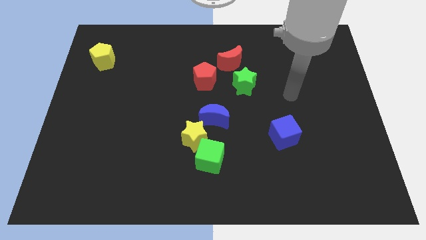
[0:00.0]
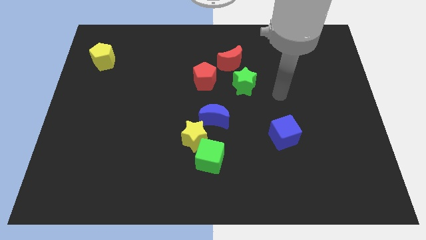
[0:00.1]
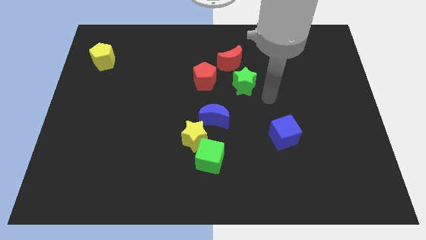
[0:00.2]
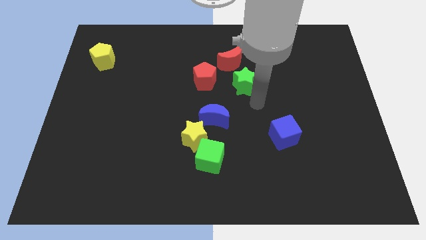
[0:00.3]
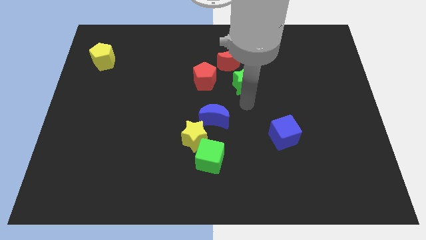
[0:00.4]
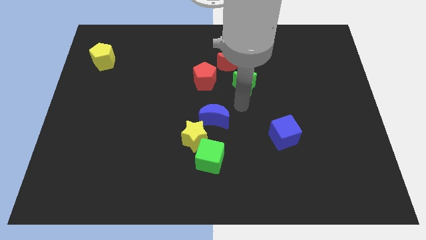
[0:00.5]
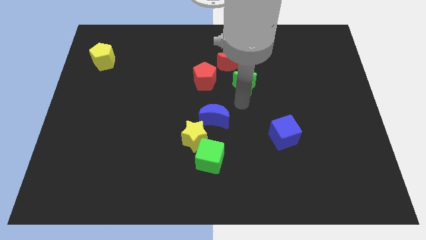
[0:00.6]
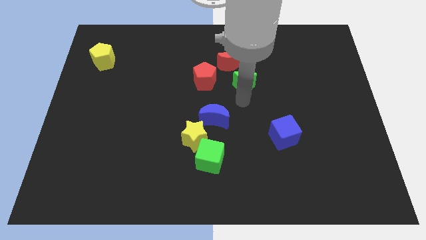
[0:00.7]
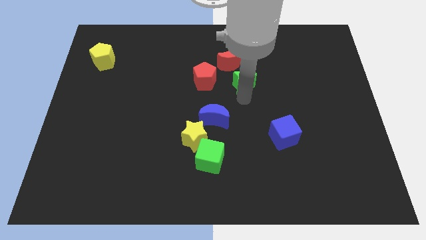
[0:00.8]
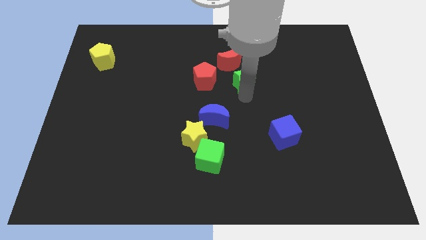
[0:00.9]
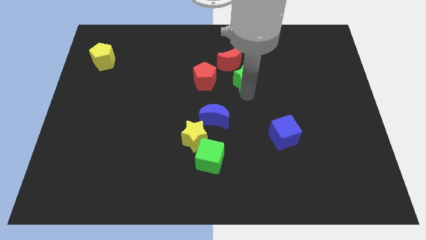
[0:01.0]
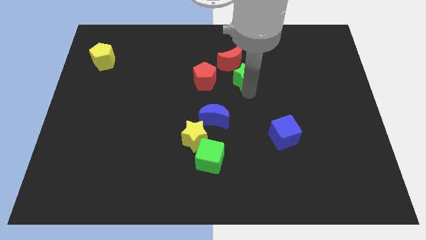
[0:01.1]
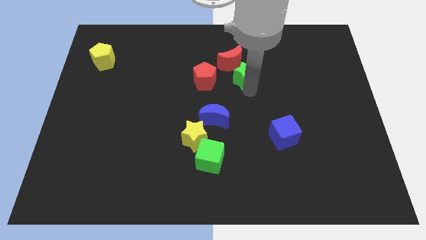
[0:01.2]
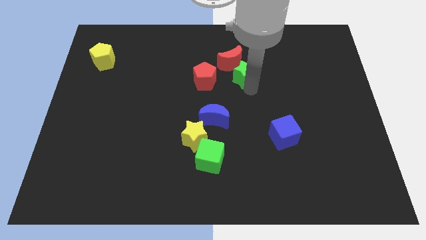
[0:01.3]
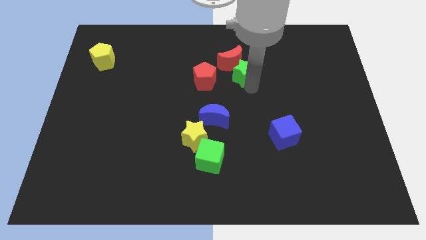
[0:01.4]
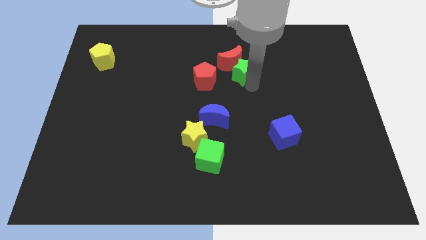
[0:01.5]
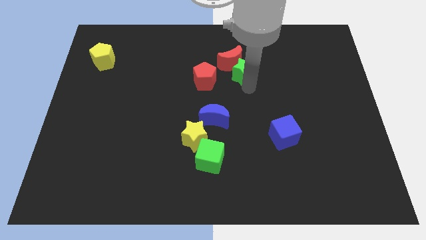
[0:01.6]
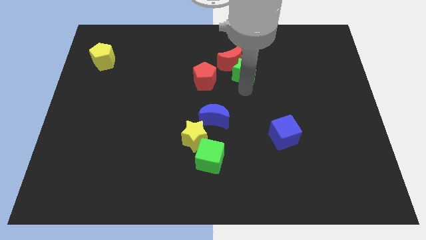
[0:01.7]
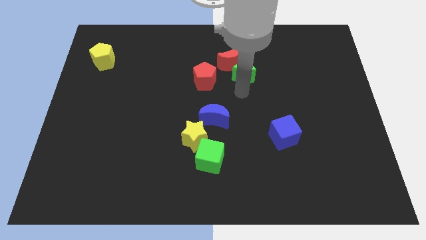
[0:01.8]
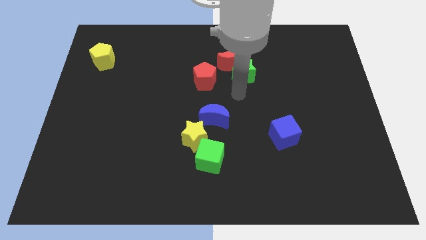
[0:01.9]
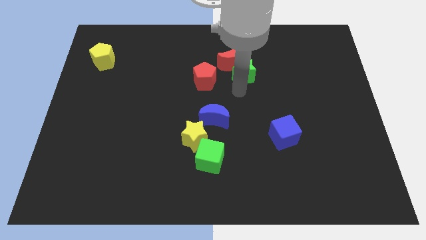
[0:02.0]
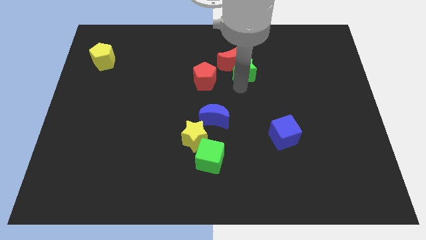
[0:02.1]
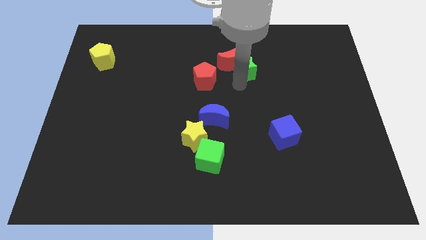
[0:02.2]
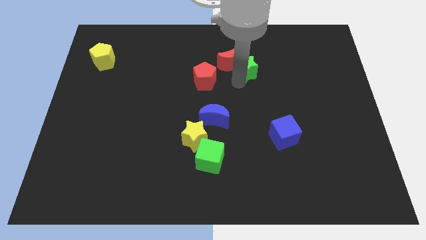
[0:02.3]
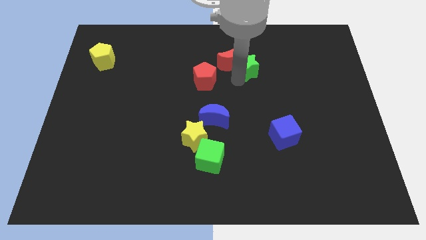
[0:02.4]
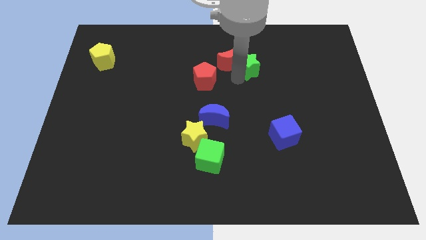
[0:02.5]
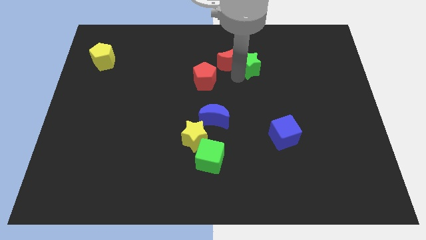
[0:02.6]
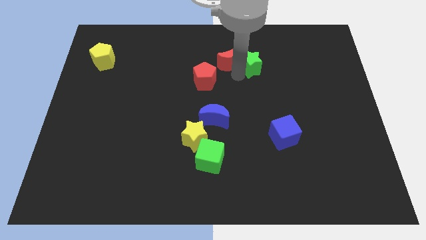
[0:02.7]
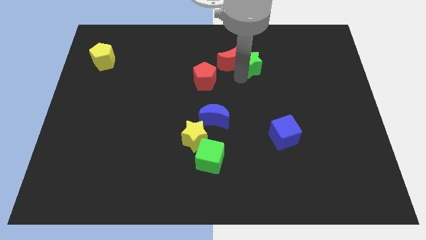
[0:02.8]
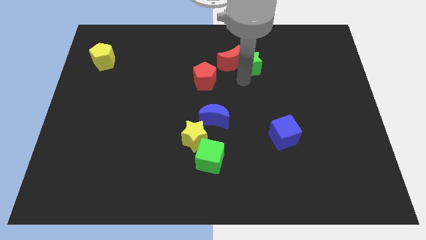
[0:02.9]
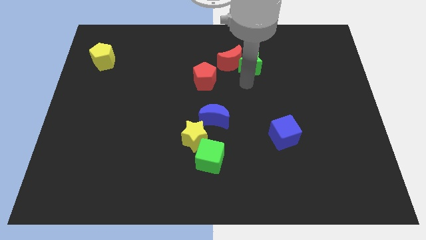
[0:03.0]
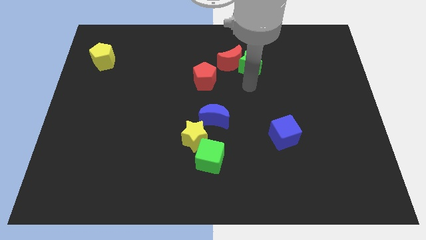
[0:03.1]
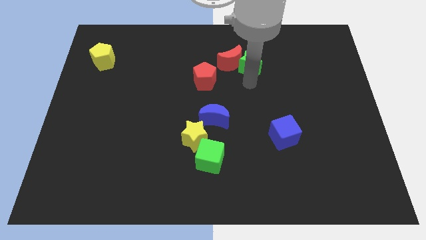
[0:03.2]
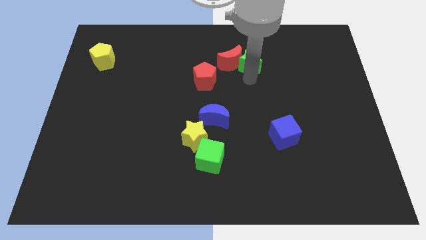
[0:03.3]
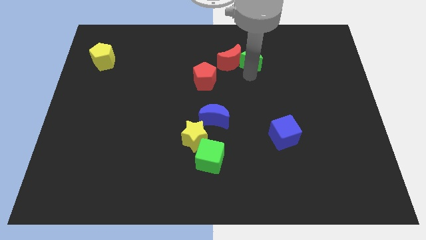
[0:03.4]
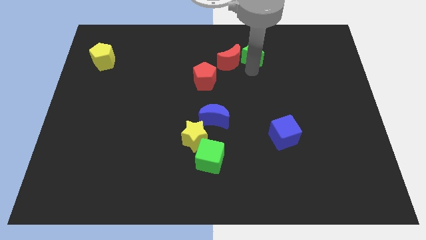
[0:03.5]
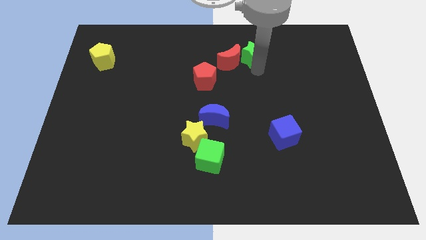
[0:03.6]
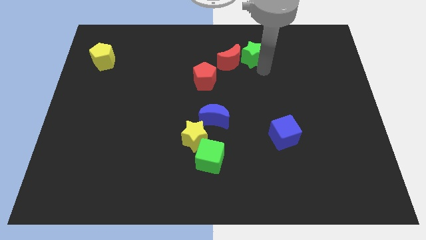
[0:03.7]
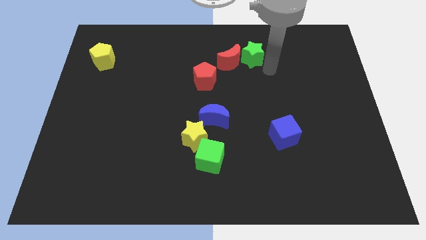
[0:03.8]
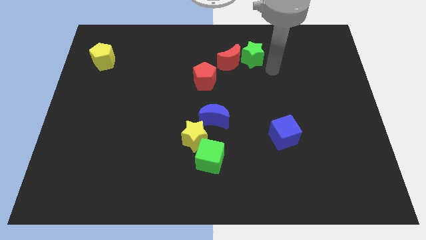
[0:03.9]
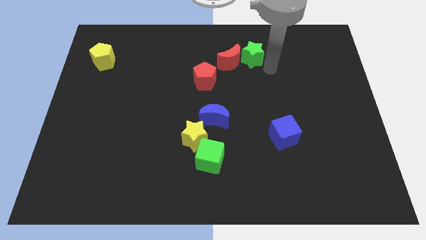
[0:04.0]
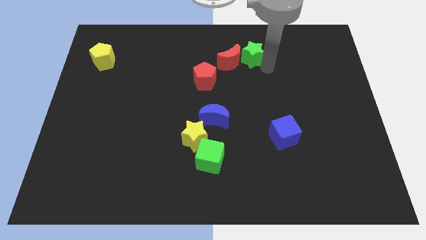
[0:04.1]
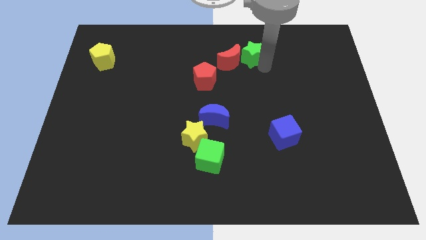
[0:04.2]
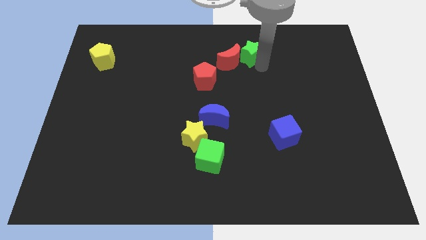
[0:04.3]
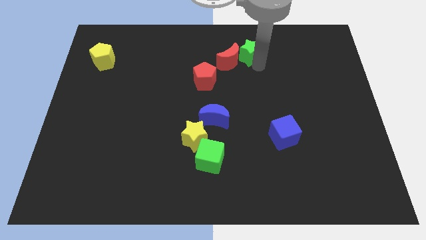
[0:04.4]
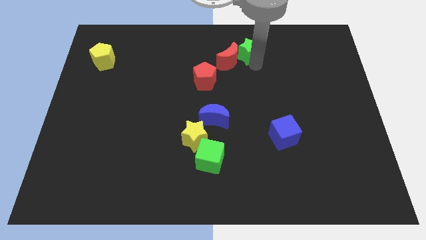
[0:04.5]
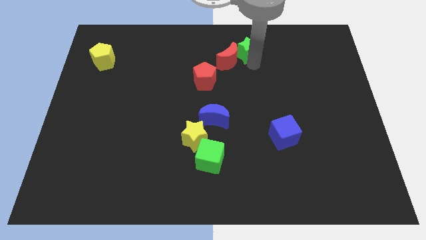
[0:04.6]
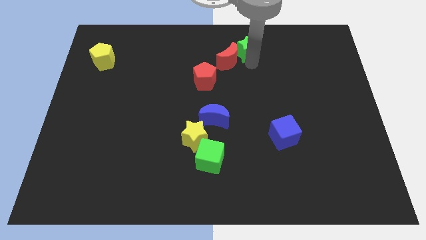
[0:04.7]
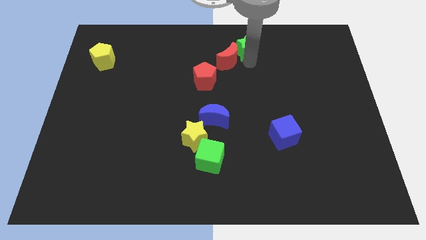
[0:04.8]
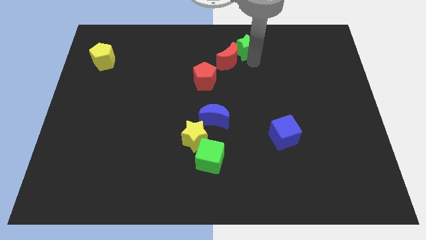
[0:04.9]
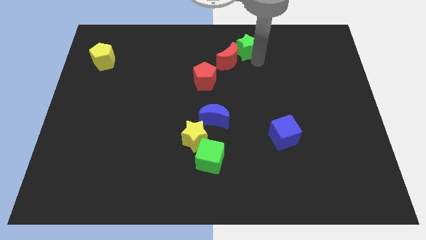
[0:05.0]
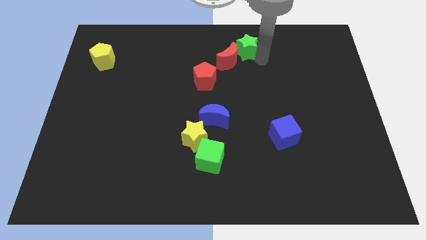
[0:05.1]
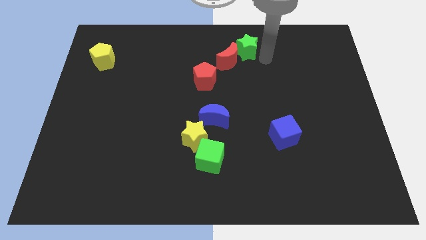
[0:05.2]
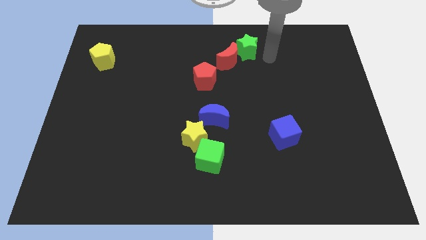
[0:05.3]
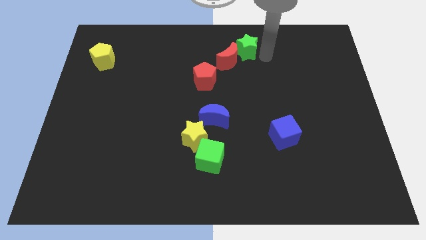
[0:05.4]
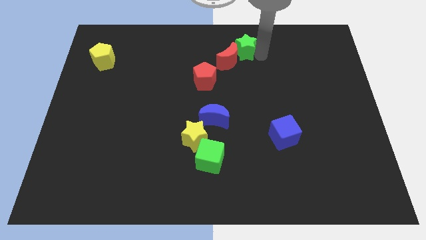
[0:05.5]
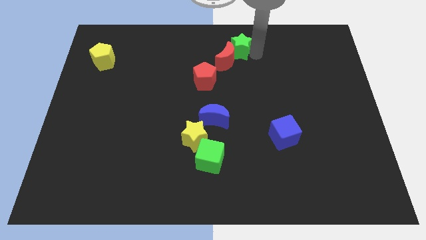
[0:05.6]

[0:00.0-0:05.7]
put the green star to the top side
